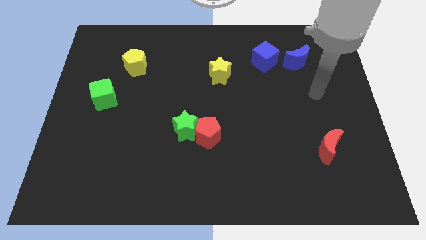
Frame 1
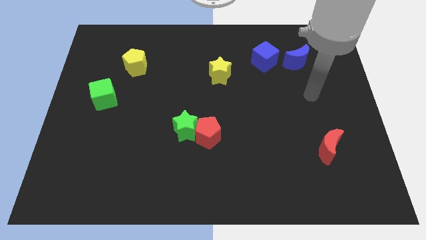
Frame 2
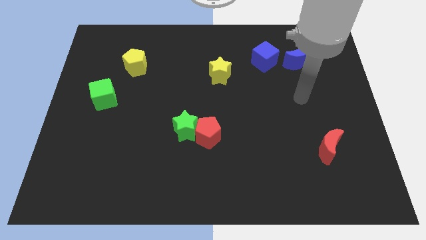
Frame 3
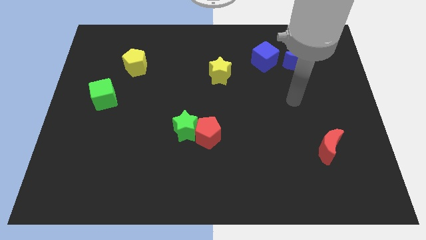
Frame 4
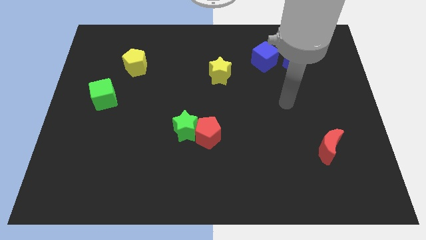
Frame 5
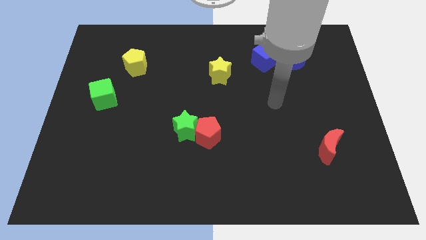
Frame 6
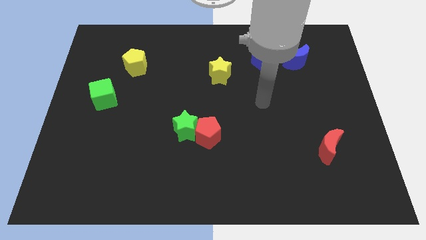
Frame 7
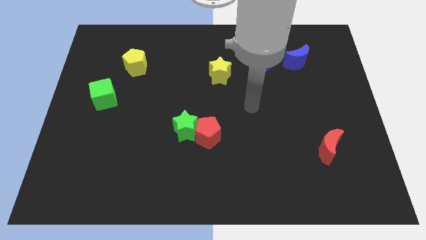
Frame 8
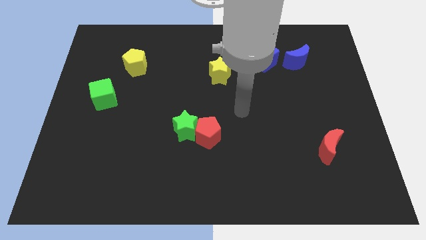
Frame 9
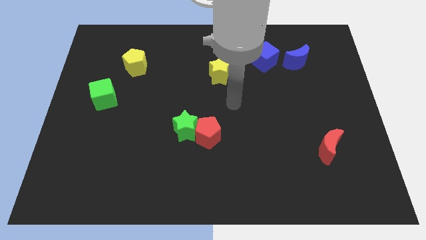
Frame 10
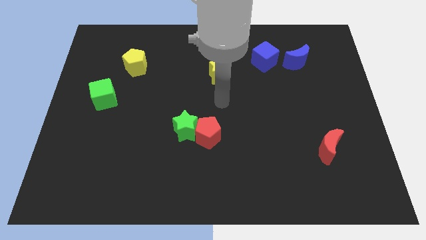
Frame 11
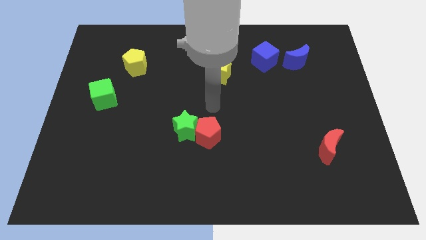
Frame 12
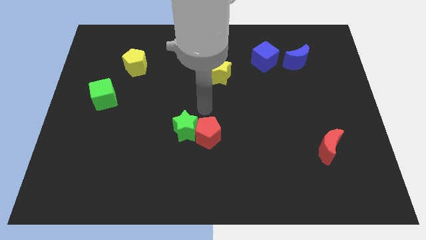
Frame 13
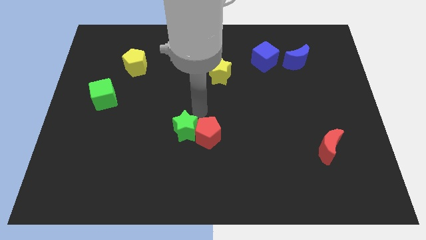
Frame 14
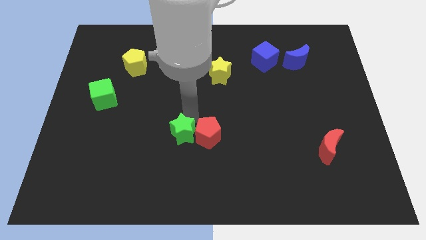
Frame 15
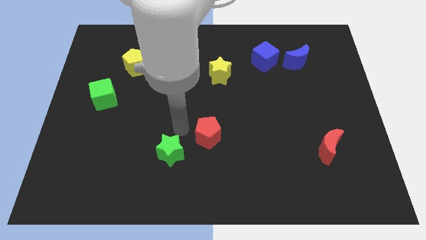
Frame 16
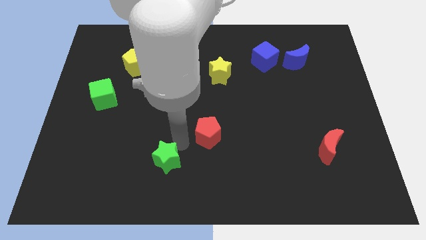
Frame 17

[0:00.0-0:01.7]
pull the red pentagon apart from the green star

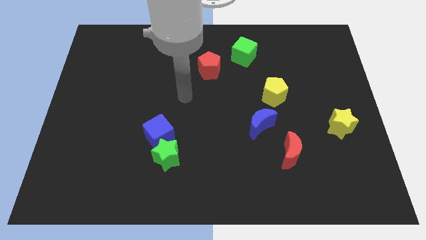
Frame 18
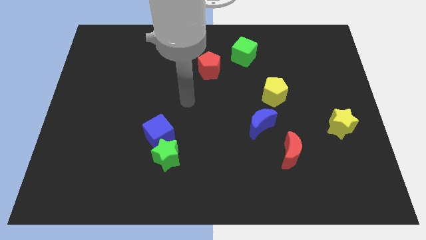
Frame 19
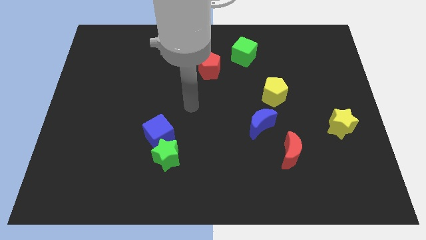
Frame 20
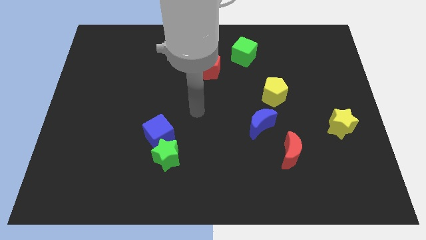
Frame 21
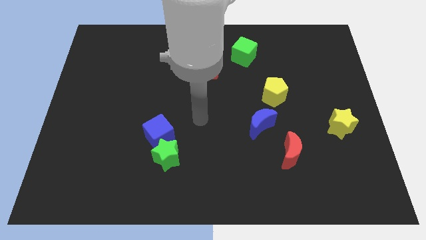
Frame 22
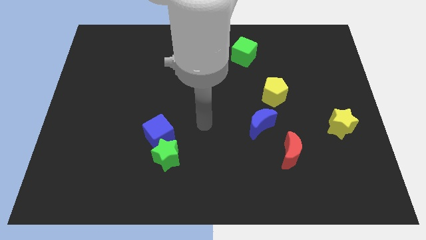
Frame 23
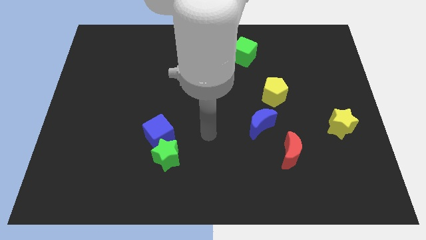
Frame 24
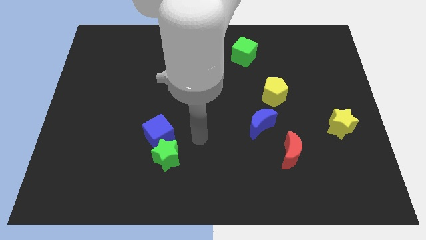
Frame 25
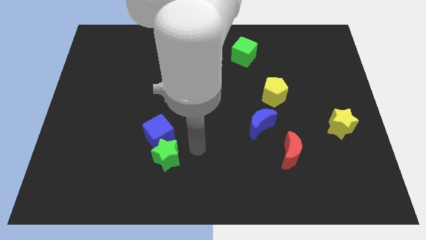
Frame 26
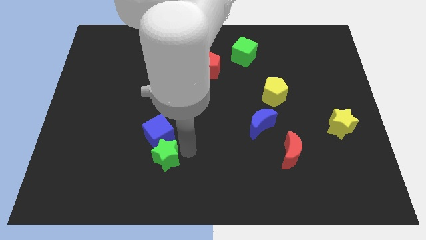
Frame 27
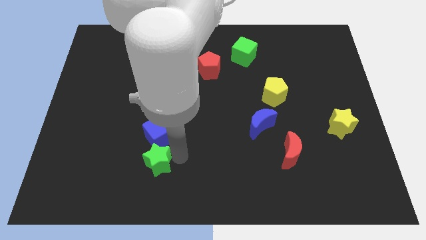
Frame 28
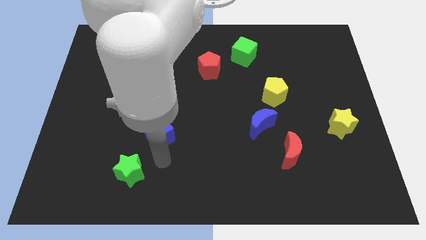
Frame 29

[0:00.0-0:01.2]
move the blue cube away from the green star

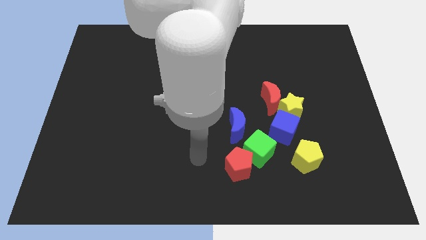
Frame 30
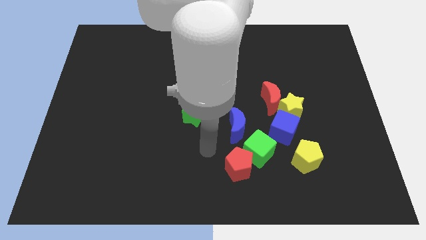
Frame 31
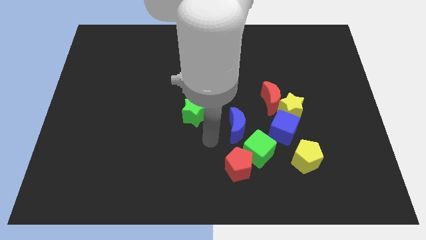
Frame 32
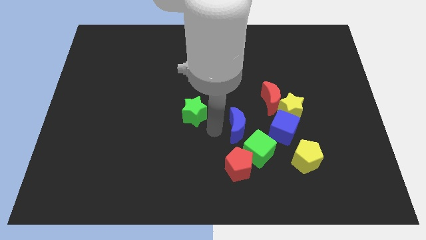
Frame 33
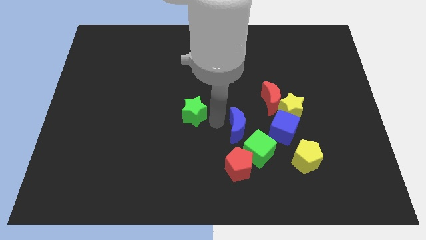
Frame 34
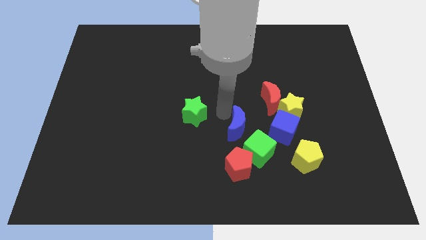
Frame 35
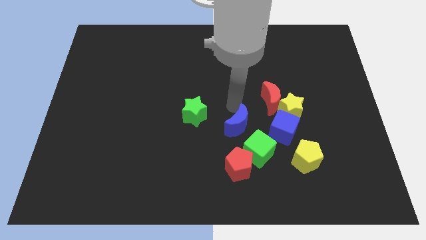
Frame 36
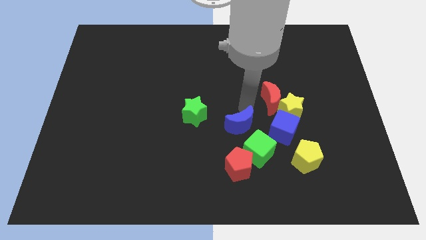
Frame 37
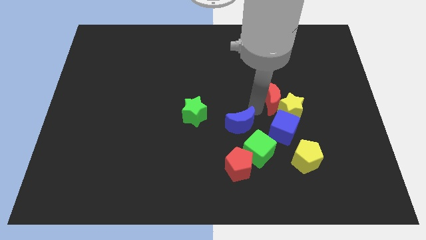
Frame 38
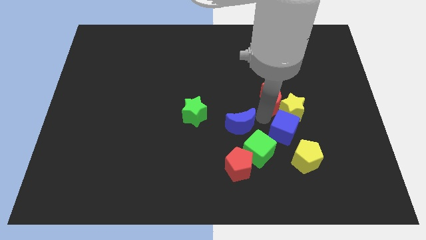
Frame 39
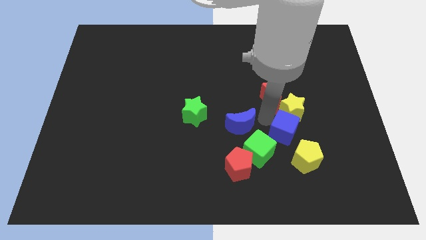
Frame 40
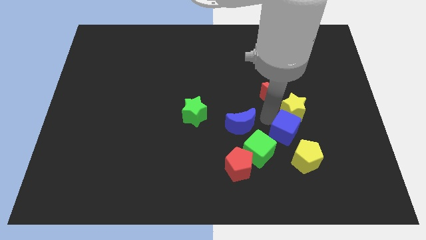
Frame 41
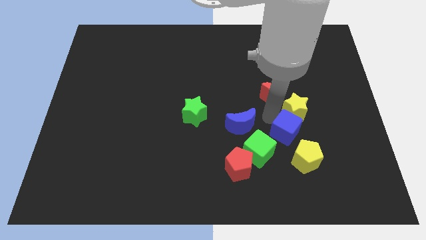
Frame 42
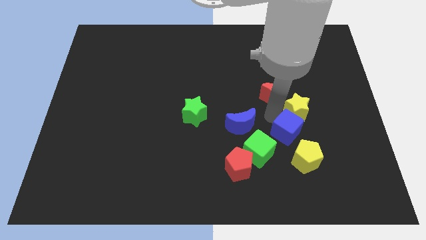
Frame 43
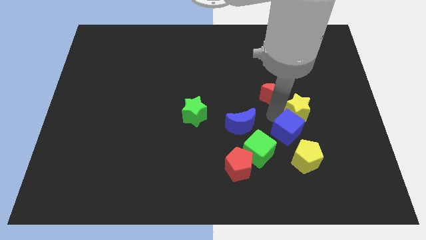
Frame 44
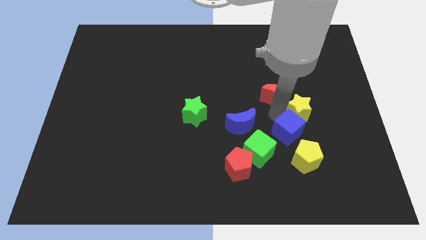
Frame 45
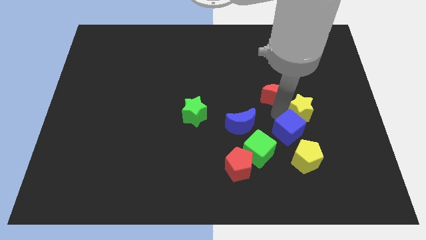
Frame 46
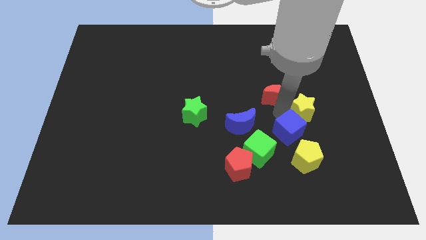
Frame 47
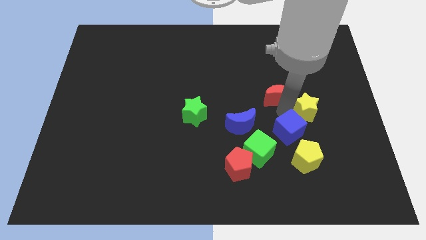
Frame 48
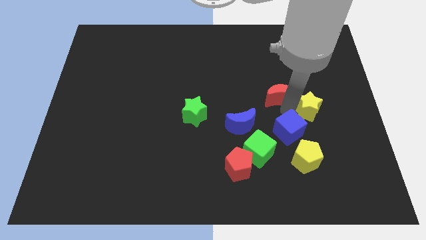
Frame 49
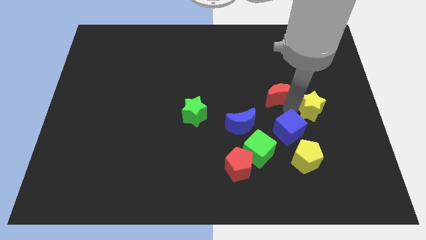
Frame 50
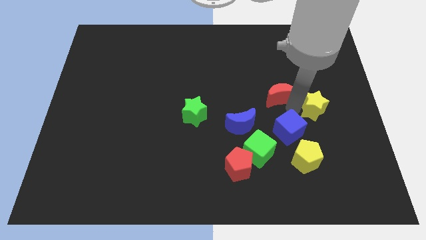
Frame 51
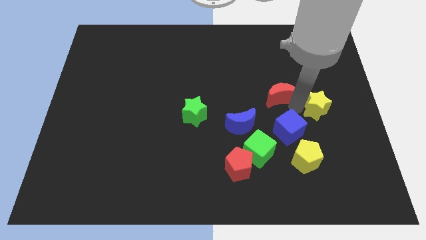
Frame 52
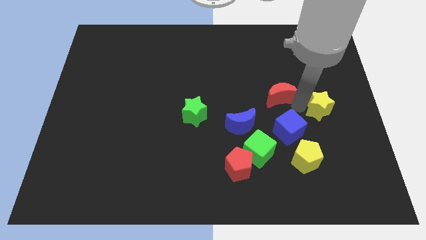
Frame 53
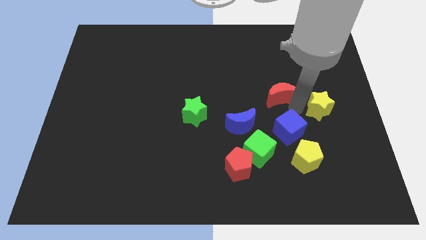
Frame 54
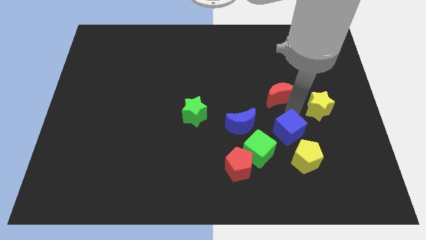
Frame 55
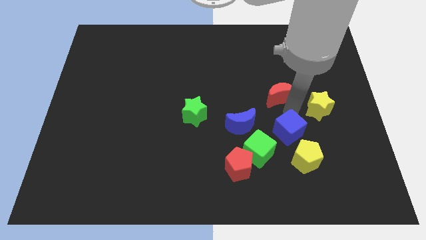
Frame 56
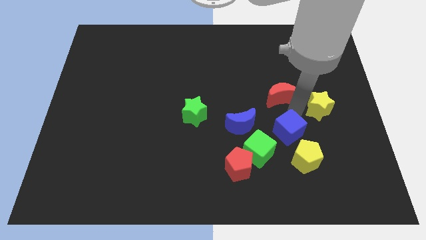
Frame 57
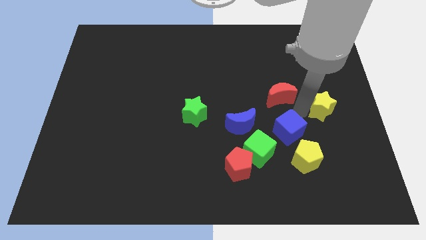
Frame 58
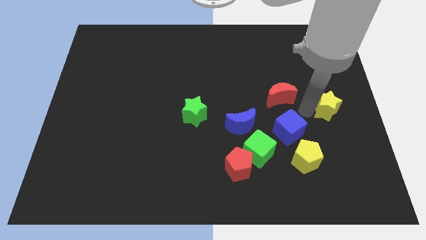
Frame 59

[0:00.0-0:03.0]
pull the yellow star apart from the red moon and blue cube

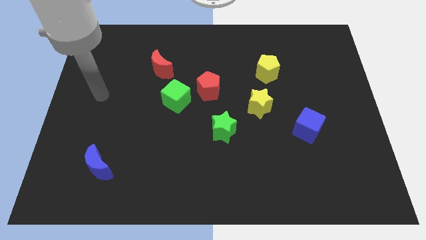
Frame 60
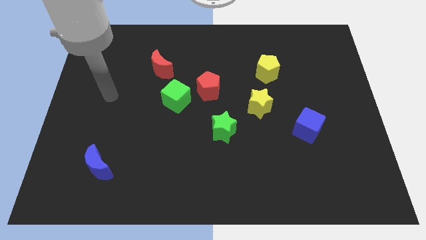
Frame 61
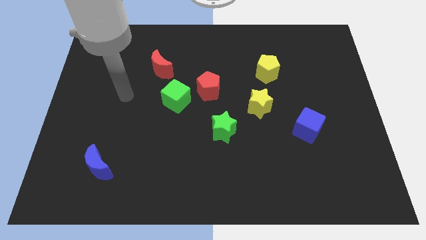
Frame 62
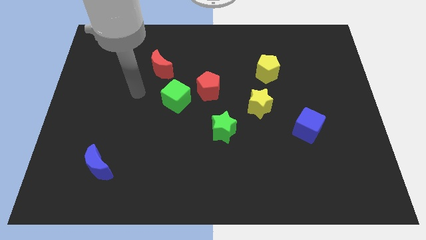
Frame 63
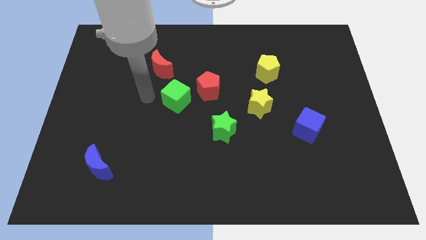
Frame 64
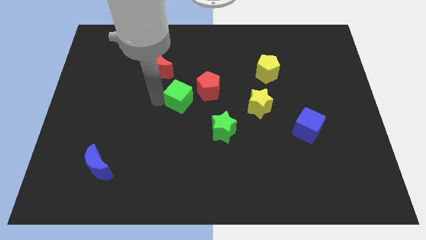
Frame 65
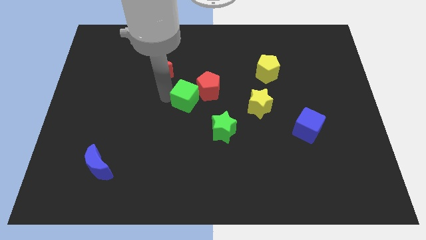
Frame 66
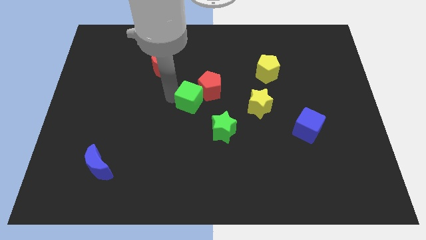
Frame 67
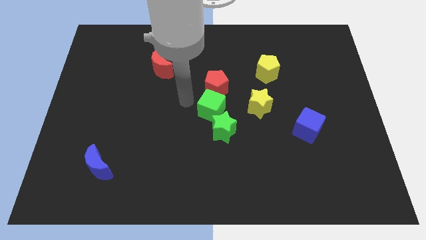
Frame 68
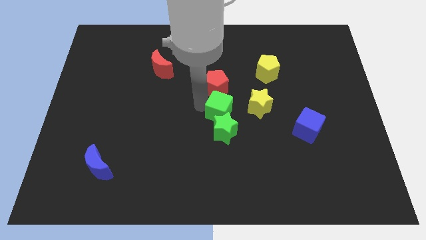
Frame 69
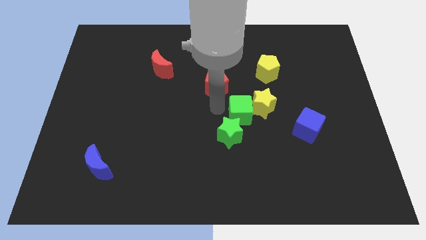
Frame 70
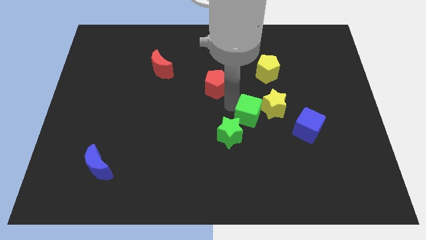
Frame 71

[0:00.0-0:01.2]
separate the red pentagon from the green cube

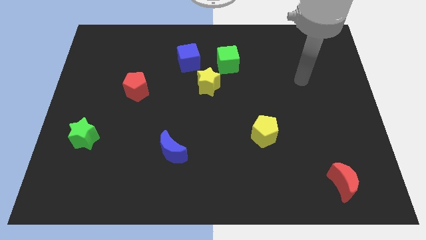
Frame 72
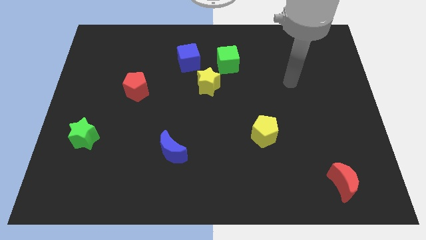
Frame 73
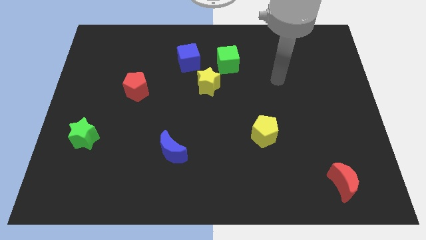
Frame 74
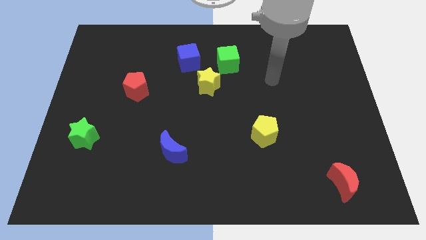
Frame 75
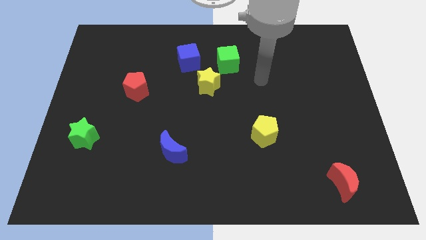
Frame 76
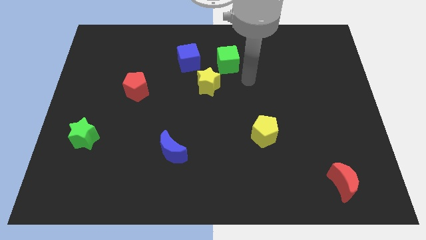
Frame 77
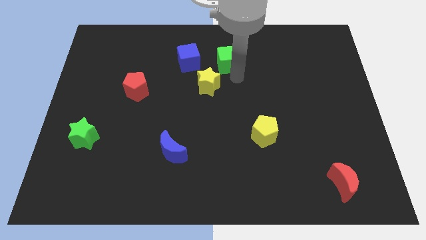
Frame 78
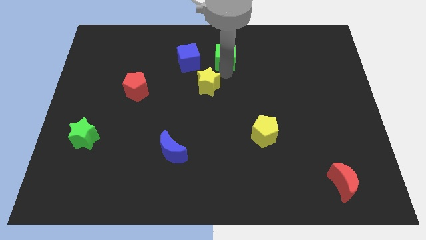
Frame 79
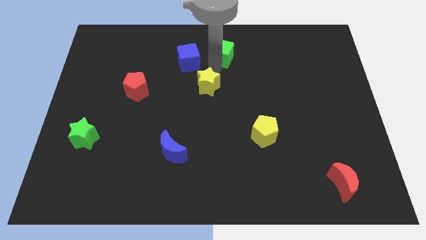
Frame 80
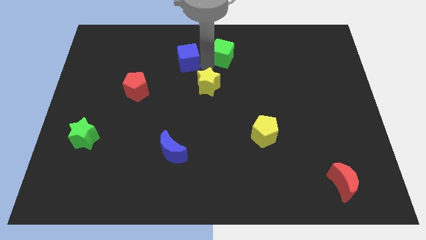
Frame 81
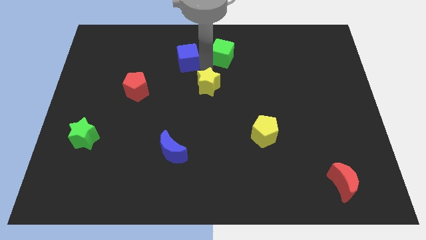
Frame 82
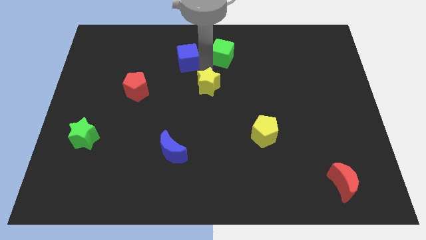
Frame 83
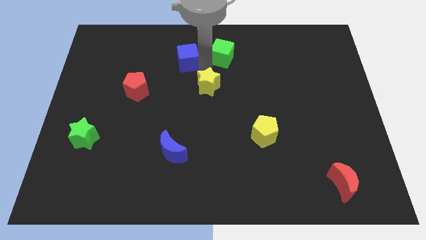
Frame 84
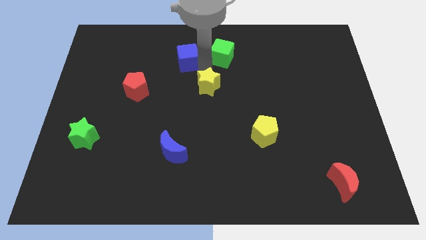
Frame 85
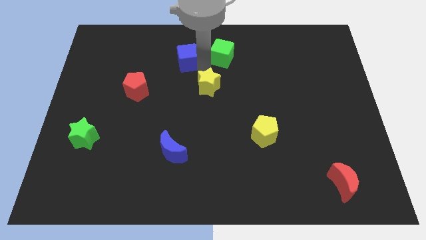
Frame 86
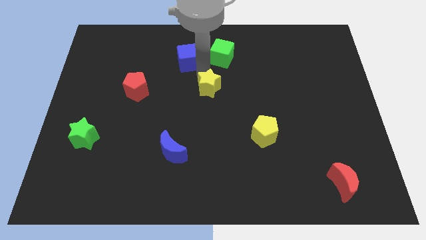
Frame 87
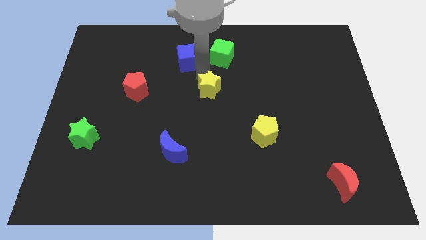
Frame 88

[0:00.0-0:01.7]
move the yellow star away from the green cube and blue cube

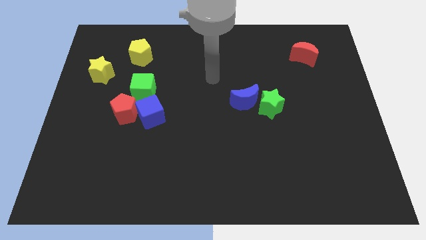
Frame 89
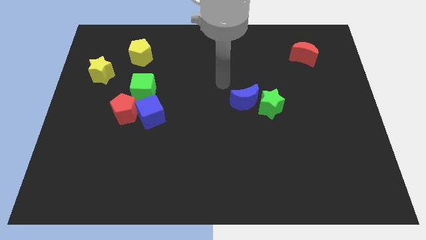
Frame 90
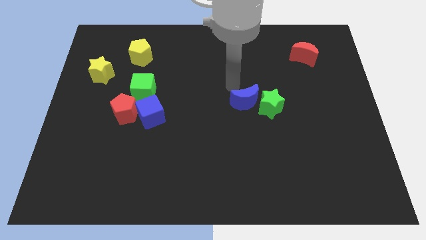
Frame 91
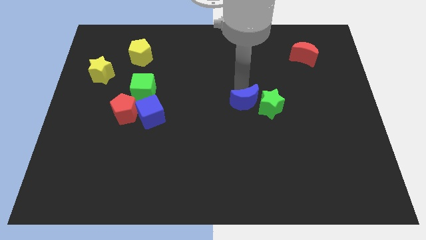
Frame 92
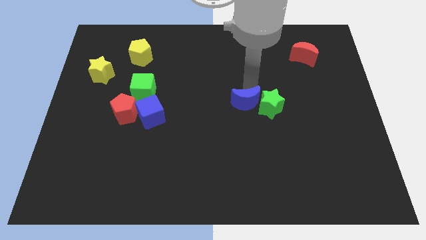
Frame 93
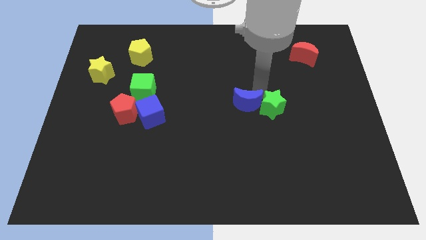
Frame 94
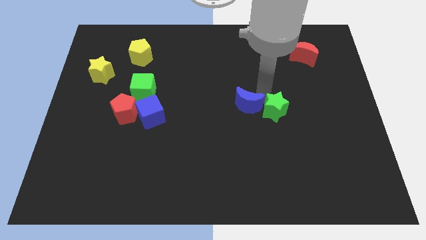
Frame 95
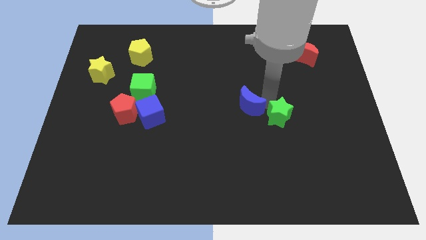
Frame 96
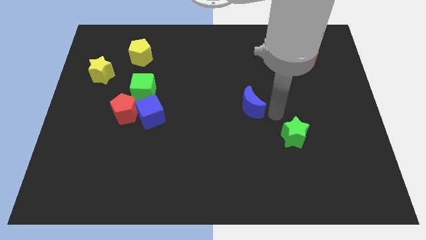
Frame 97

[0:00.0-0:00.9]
separate the blue moon from the green star
